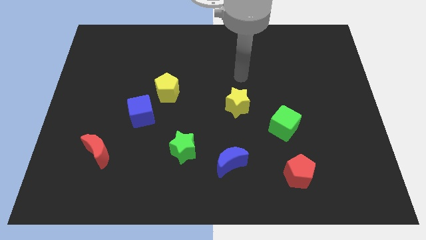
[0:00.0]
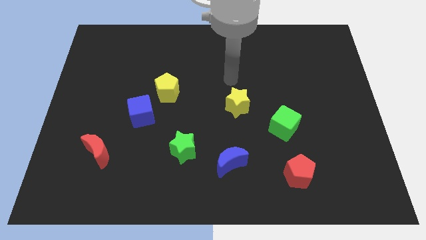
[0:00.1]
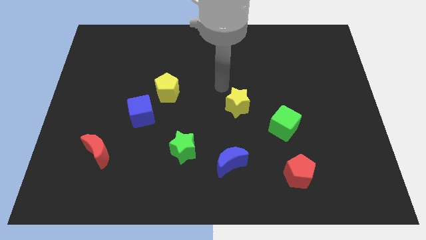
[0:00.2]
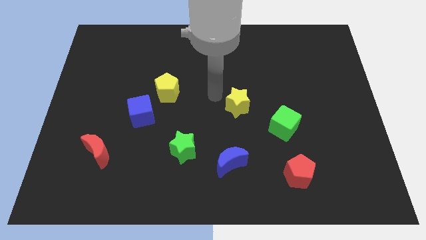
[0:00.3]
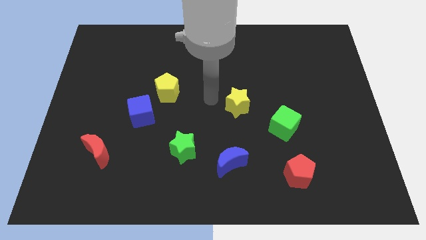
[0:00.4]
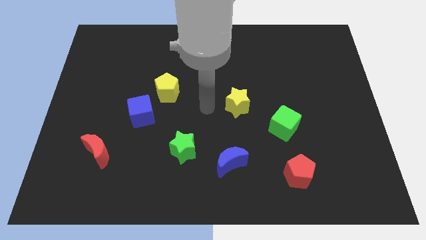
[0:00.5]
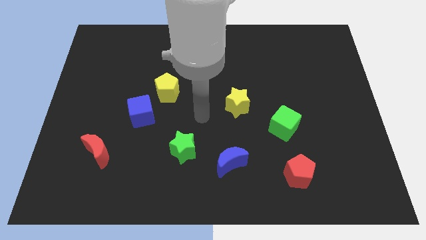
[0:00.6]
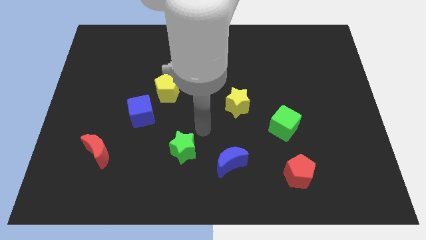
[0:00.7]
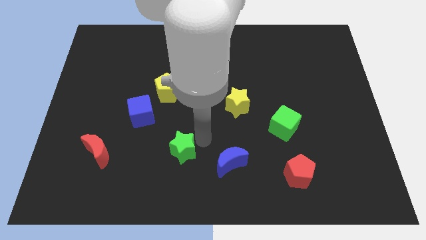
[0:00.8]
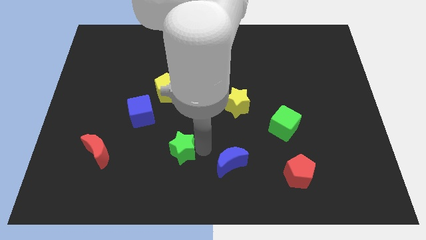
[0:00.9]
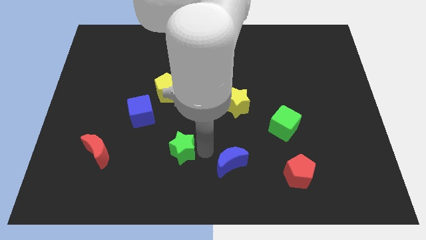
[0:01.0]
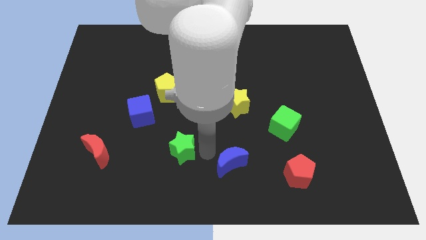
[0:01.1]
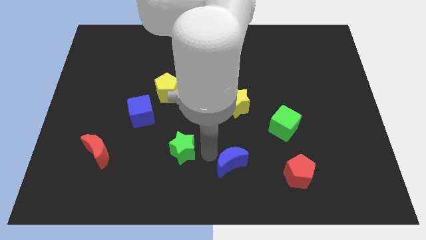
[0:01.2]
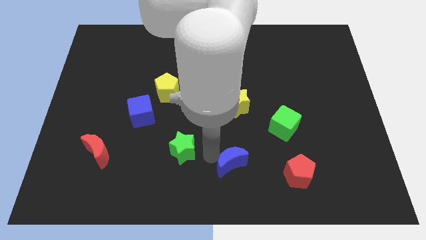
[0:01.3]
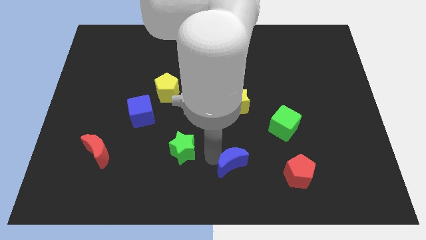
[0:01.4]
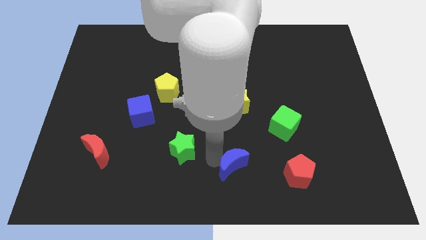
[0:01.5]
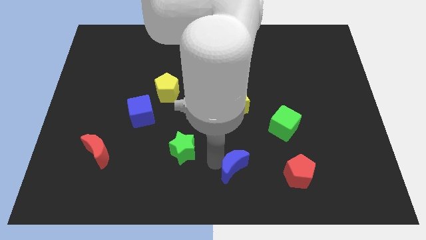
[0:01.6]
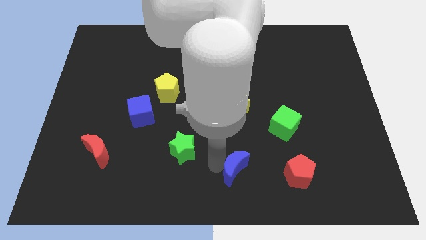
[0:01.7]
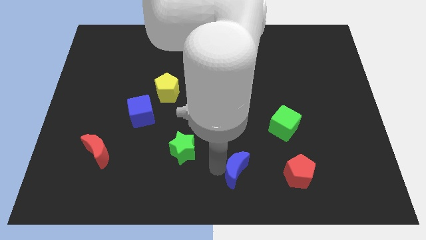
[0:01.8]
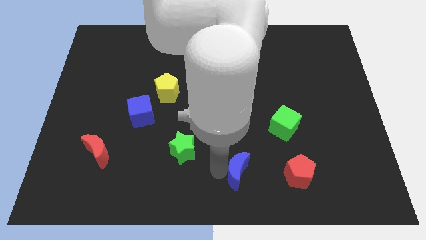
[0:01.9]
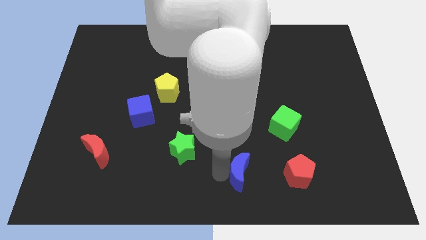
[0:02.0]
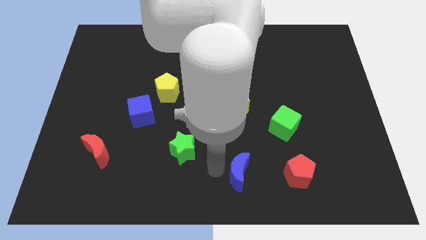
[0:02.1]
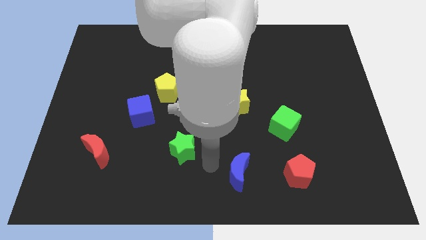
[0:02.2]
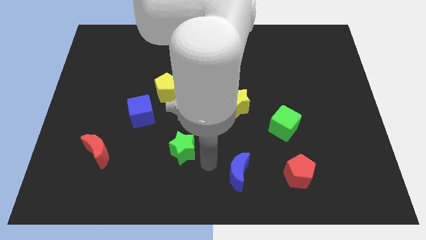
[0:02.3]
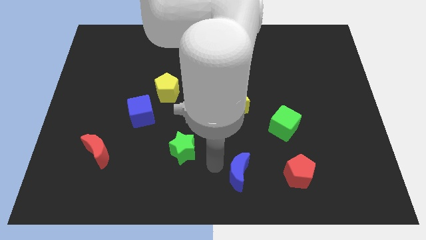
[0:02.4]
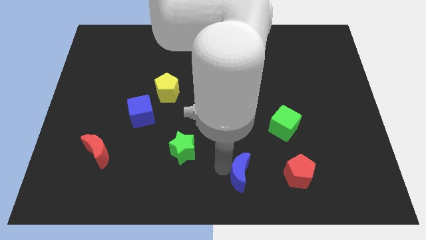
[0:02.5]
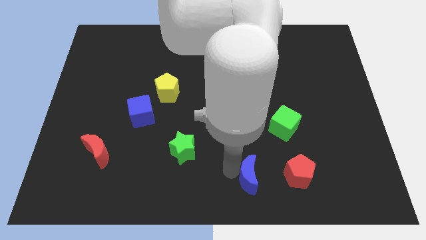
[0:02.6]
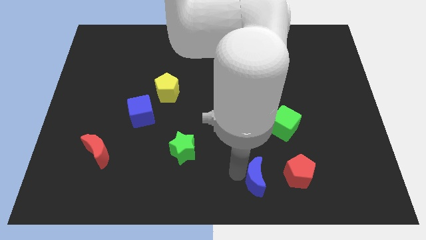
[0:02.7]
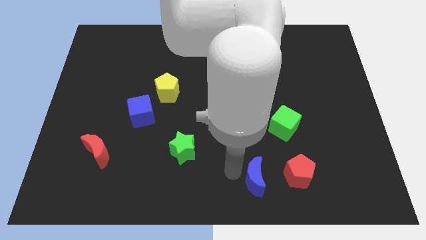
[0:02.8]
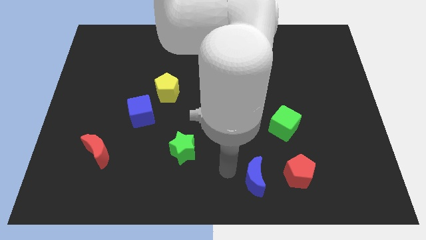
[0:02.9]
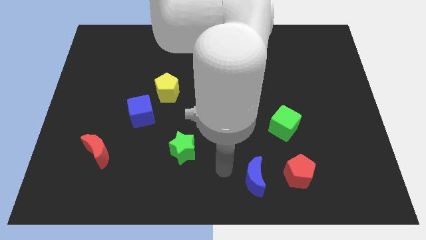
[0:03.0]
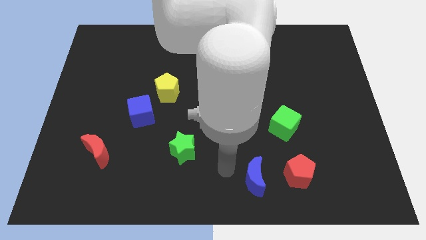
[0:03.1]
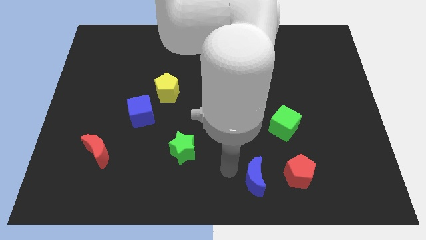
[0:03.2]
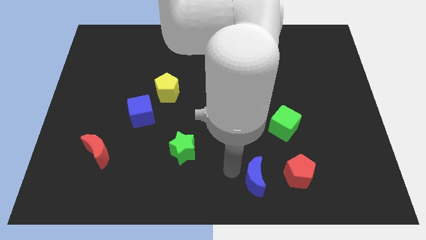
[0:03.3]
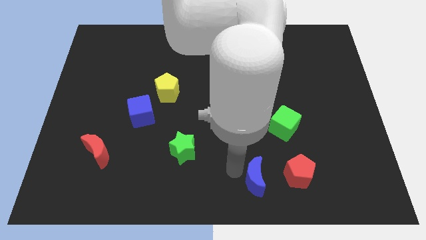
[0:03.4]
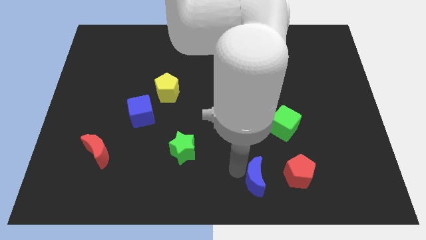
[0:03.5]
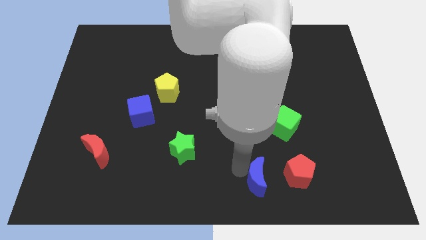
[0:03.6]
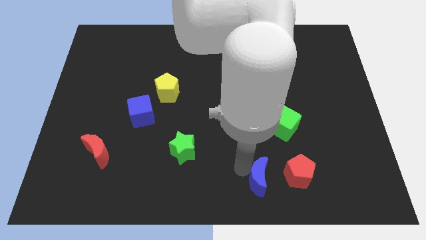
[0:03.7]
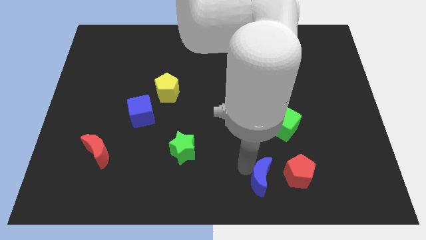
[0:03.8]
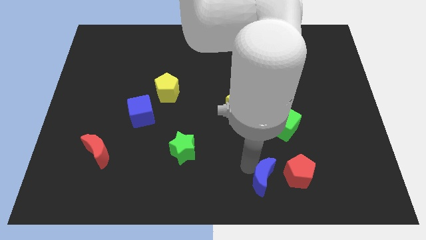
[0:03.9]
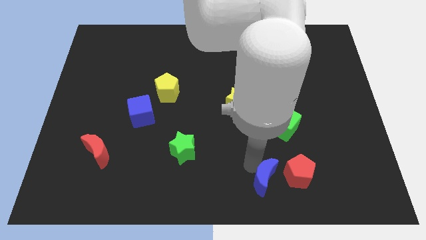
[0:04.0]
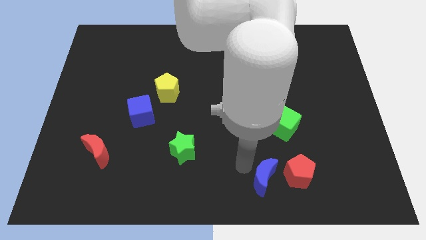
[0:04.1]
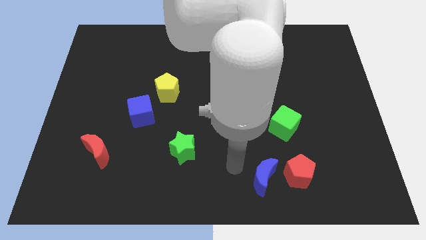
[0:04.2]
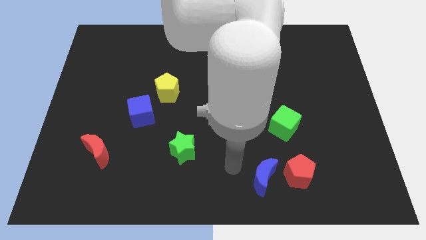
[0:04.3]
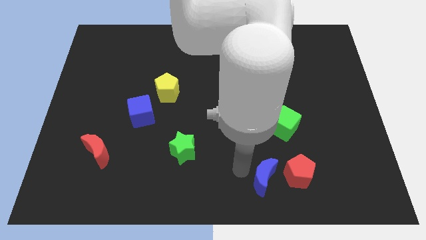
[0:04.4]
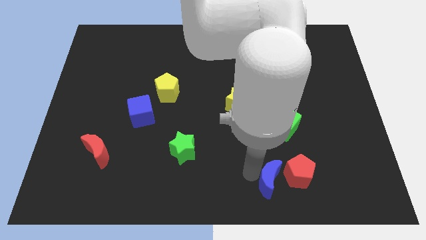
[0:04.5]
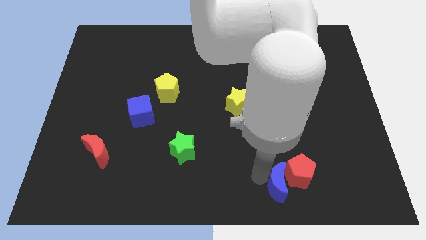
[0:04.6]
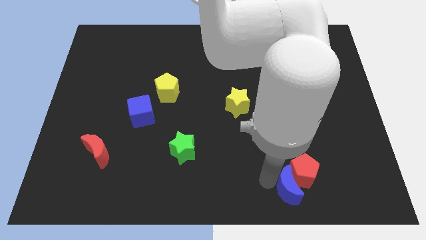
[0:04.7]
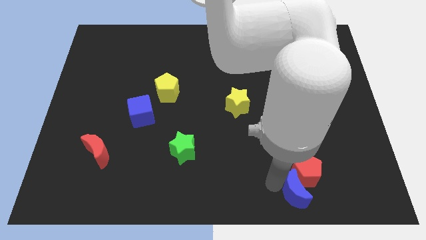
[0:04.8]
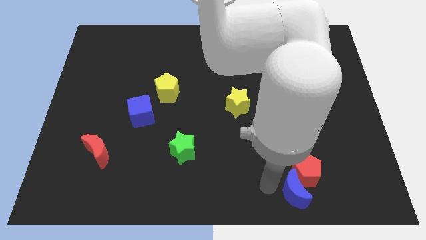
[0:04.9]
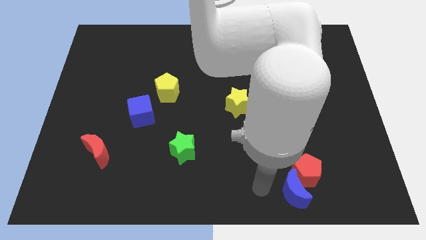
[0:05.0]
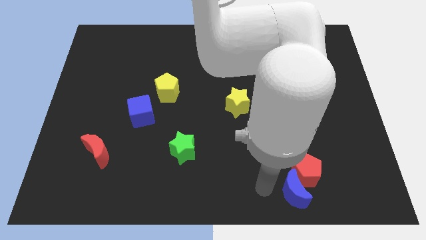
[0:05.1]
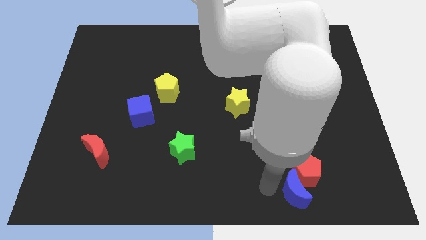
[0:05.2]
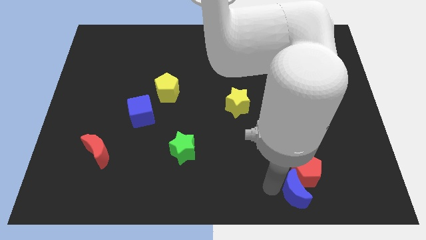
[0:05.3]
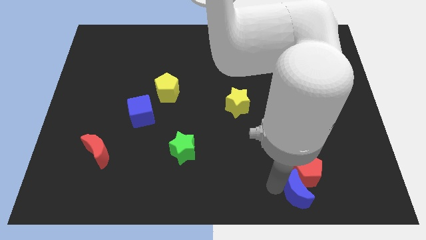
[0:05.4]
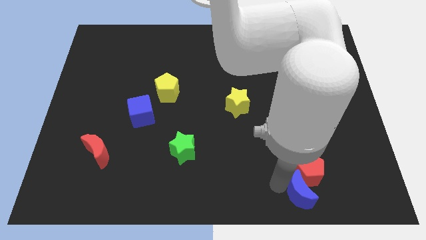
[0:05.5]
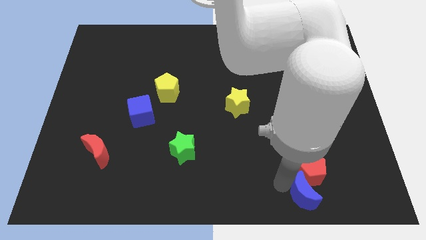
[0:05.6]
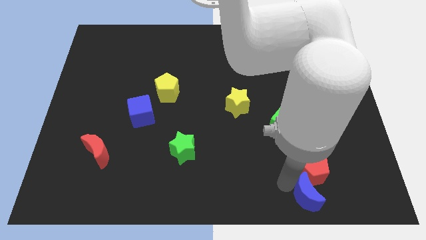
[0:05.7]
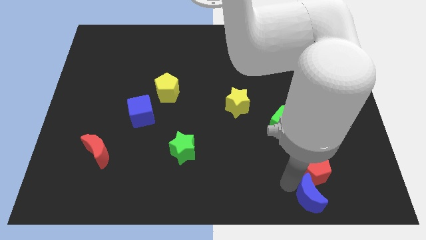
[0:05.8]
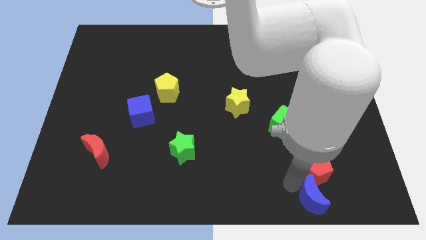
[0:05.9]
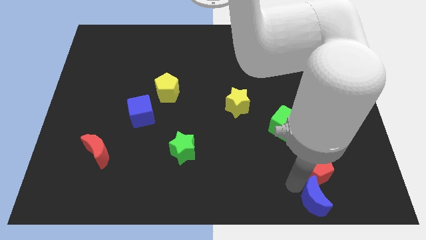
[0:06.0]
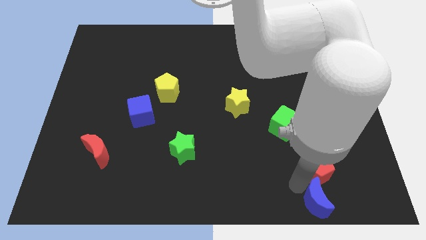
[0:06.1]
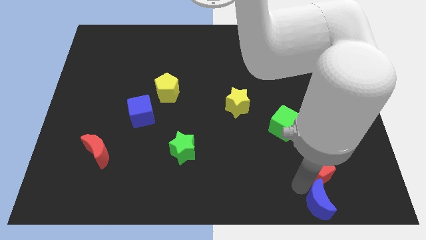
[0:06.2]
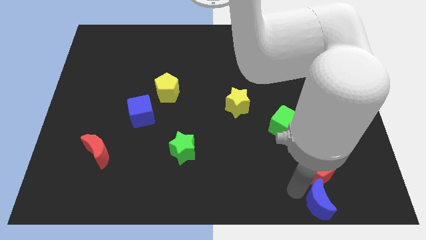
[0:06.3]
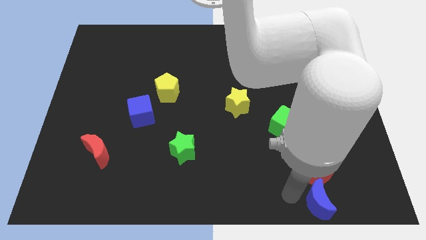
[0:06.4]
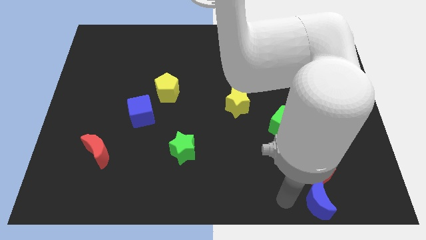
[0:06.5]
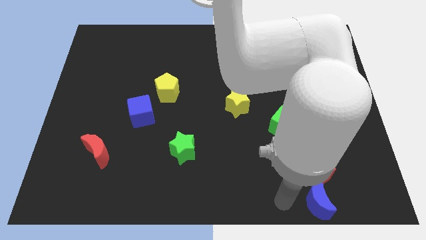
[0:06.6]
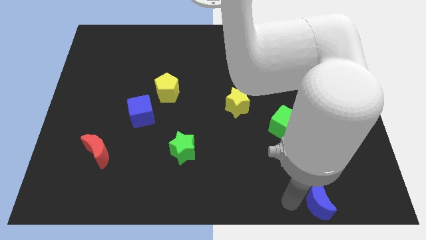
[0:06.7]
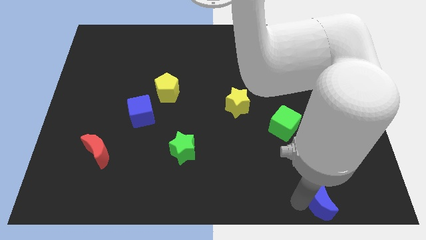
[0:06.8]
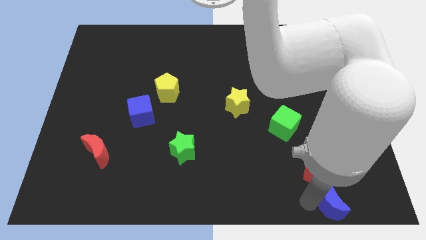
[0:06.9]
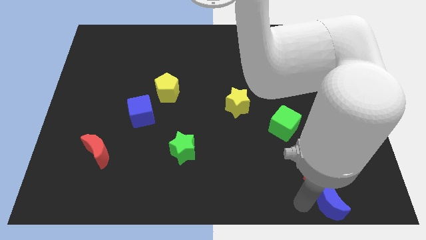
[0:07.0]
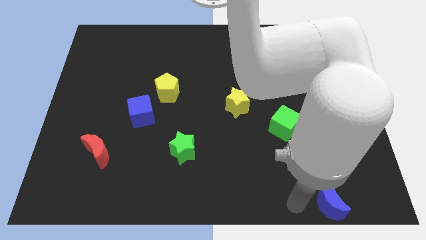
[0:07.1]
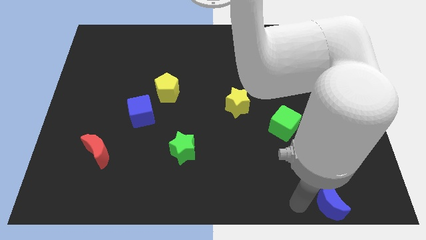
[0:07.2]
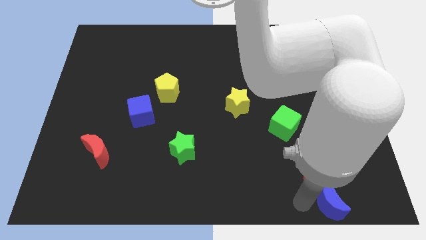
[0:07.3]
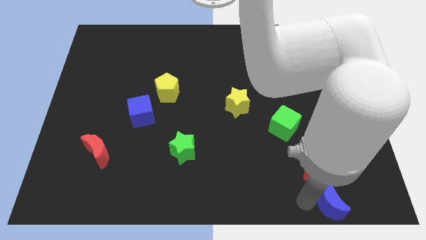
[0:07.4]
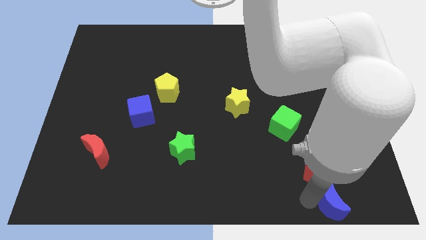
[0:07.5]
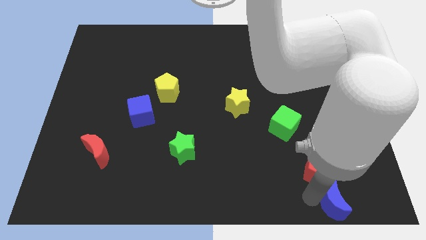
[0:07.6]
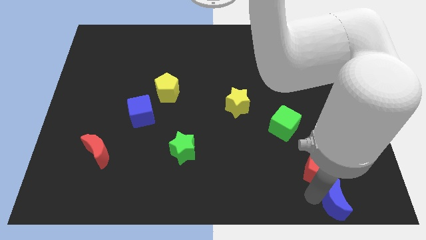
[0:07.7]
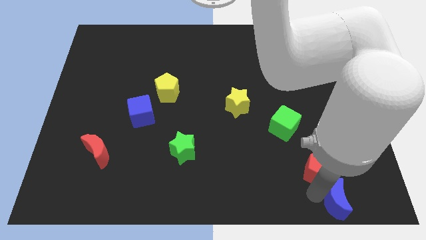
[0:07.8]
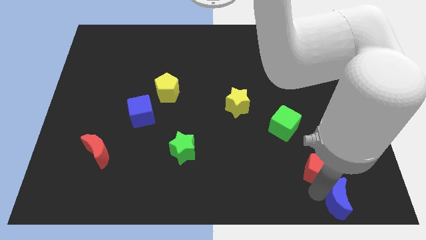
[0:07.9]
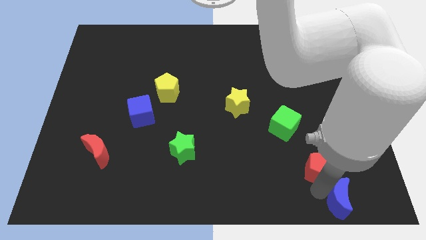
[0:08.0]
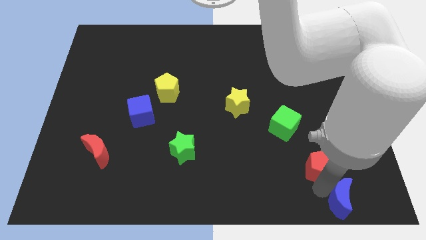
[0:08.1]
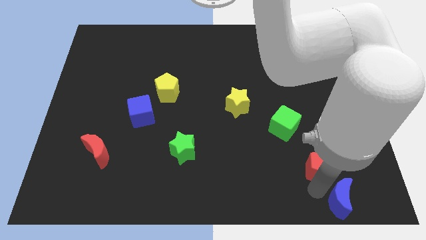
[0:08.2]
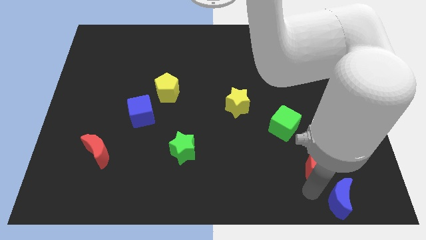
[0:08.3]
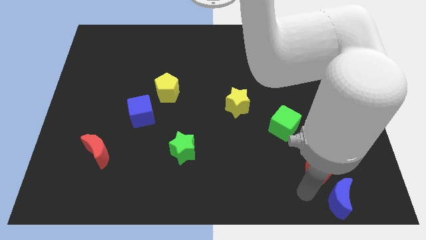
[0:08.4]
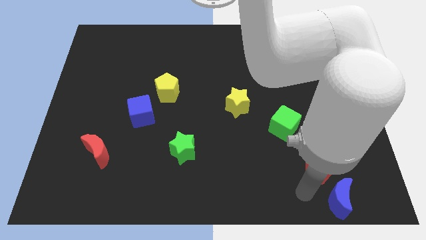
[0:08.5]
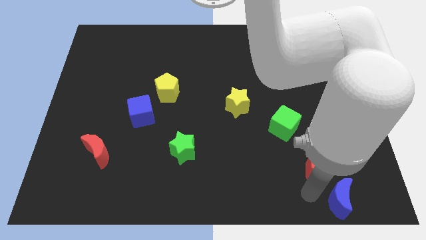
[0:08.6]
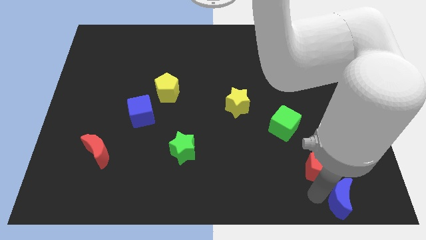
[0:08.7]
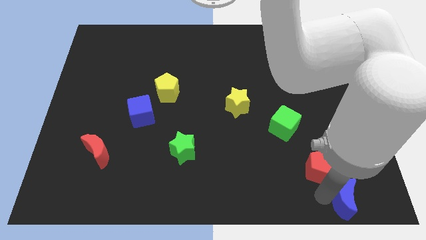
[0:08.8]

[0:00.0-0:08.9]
put the blue moon to the bottom right of the board
